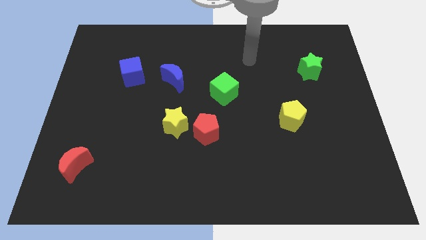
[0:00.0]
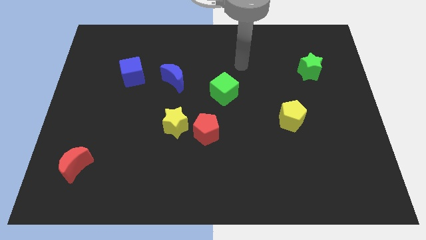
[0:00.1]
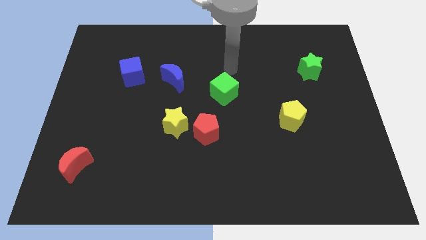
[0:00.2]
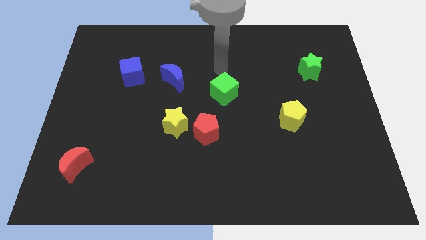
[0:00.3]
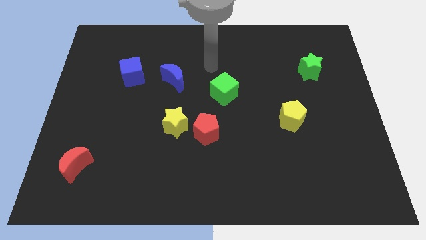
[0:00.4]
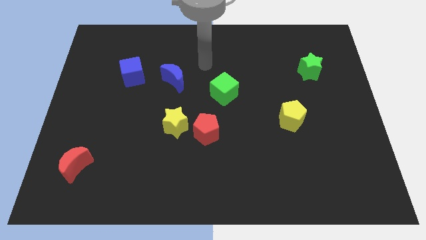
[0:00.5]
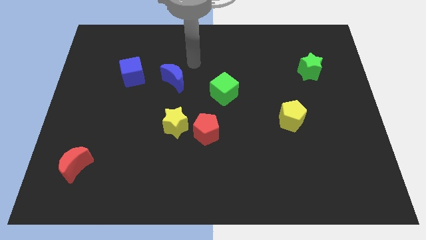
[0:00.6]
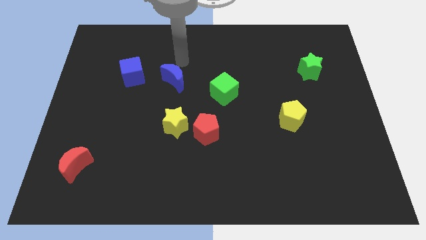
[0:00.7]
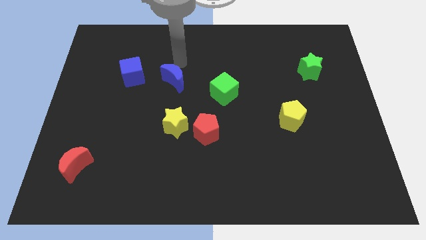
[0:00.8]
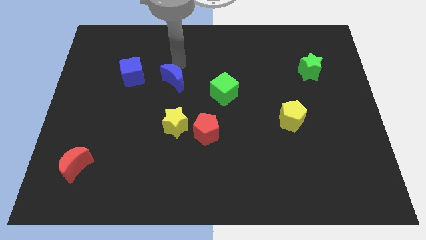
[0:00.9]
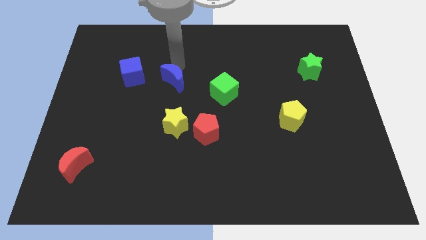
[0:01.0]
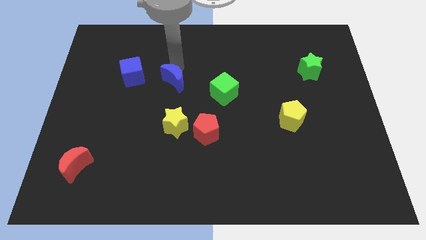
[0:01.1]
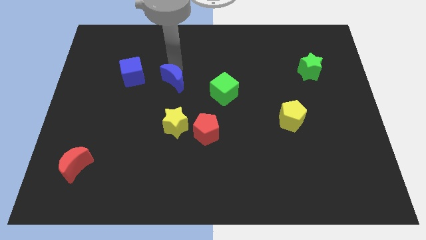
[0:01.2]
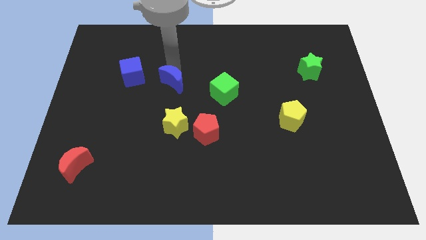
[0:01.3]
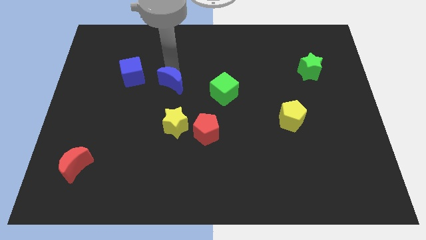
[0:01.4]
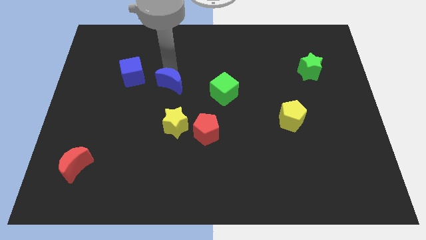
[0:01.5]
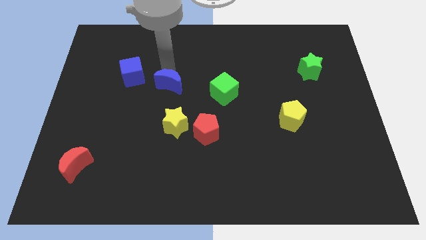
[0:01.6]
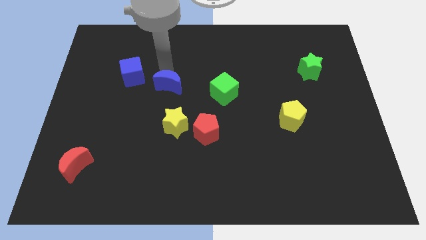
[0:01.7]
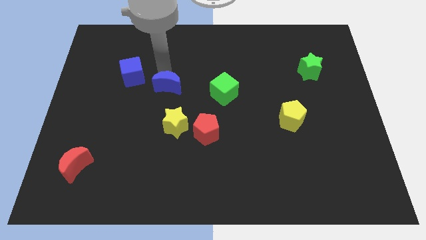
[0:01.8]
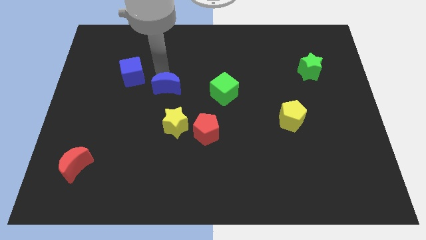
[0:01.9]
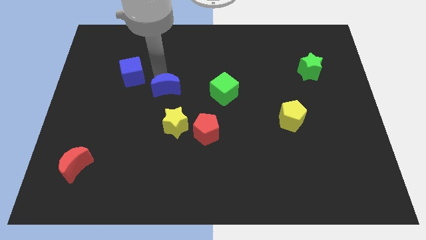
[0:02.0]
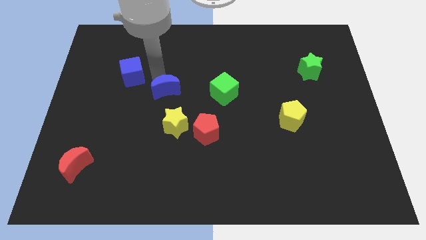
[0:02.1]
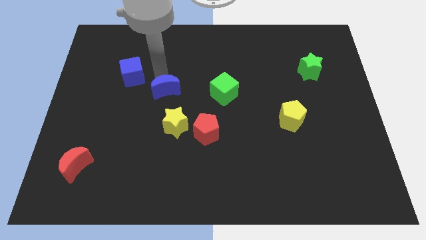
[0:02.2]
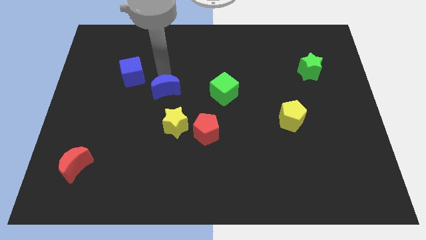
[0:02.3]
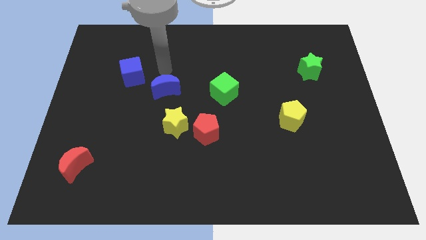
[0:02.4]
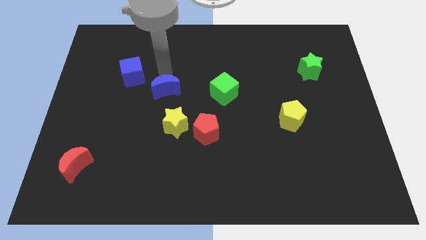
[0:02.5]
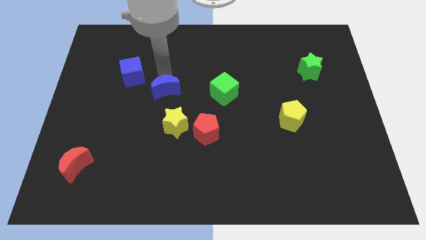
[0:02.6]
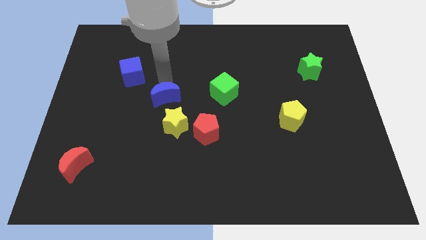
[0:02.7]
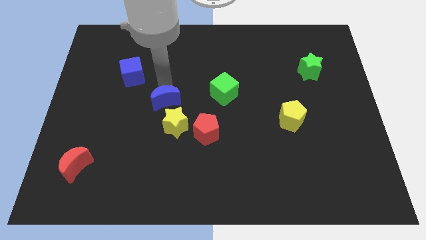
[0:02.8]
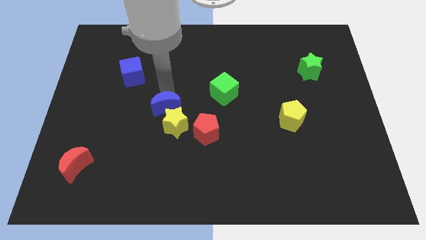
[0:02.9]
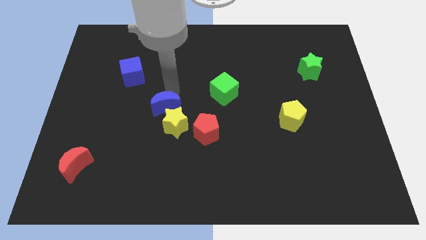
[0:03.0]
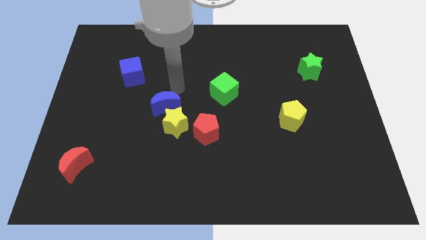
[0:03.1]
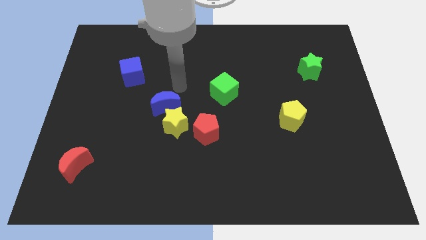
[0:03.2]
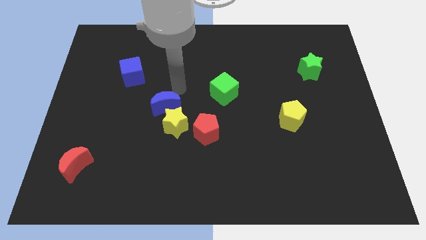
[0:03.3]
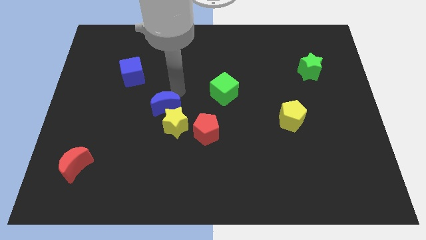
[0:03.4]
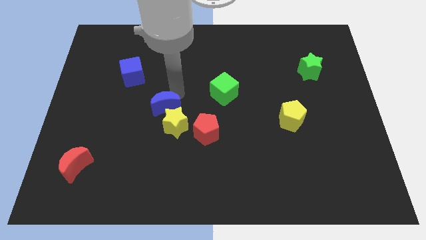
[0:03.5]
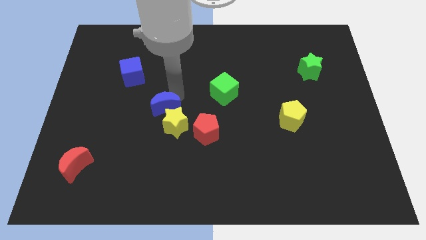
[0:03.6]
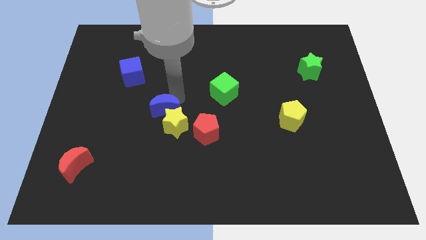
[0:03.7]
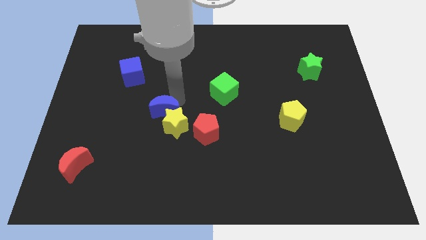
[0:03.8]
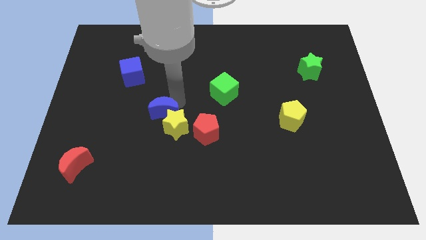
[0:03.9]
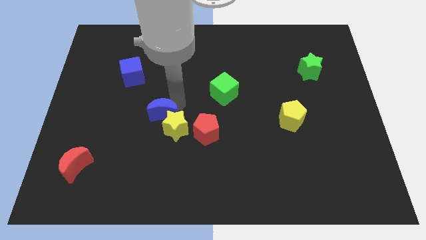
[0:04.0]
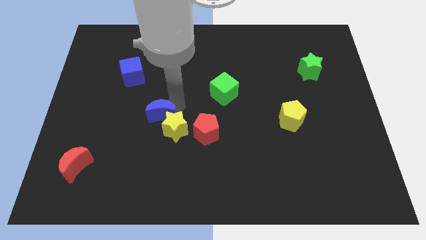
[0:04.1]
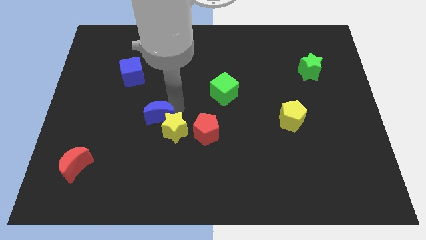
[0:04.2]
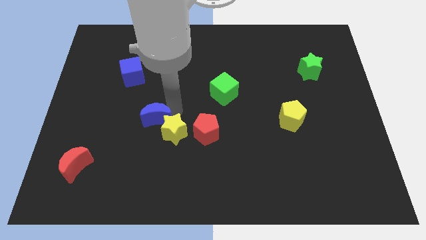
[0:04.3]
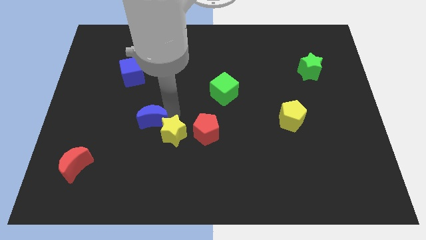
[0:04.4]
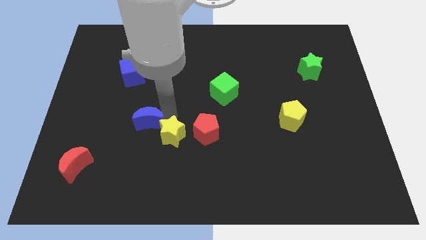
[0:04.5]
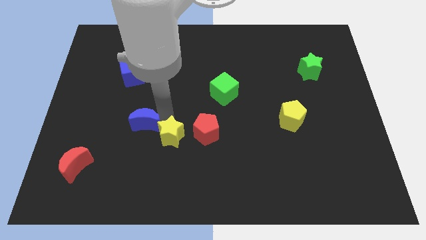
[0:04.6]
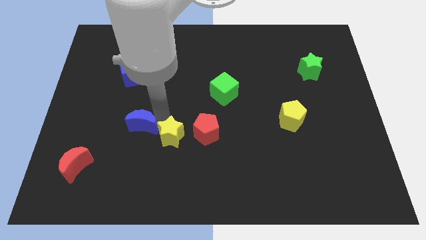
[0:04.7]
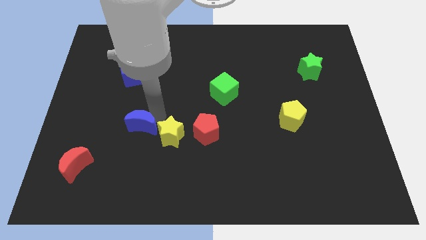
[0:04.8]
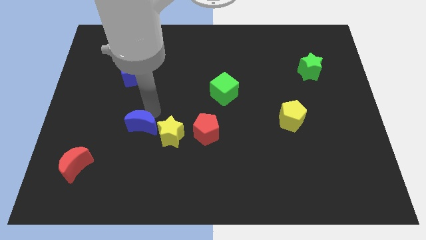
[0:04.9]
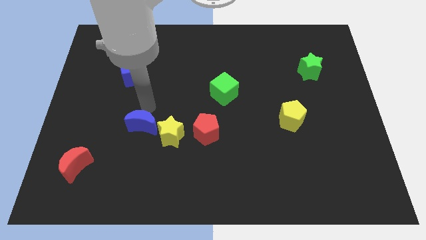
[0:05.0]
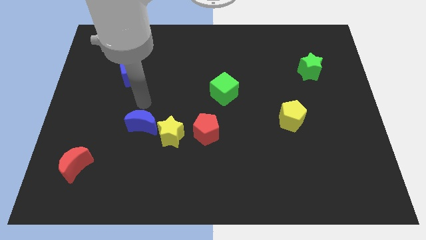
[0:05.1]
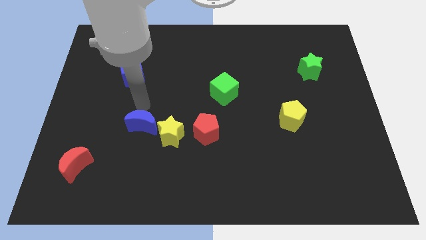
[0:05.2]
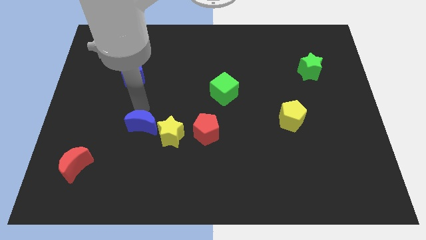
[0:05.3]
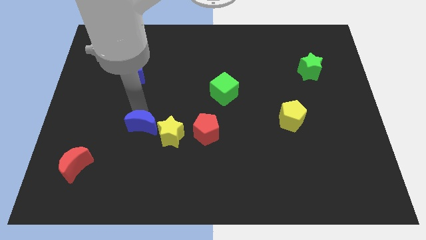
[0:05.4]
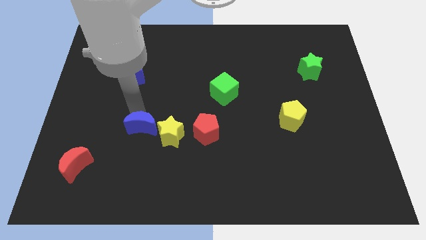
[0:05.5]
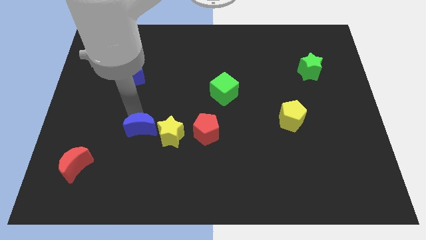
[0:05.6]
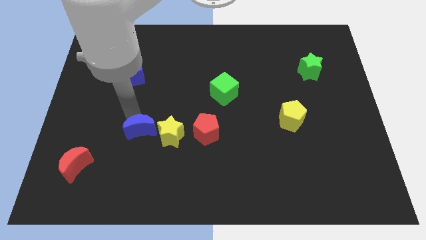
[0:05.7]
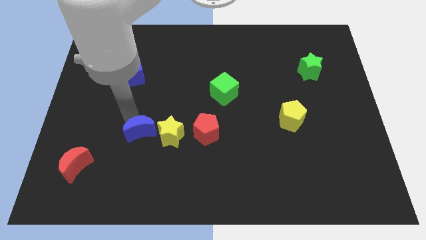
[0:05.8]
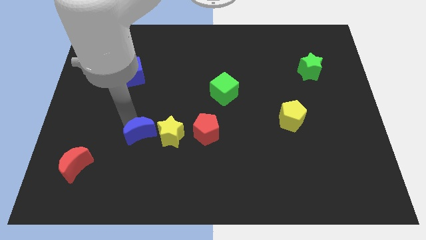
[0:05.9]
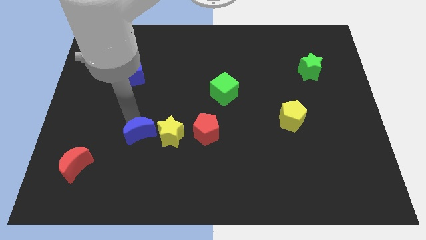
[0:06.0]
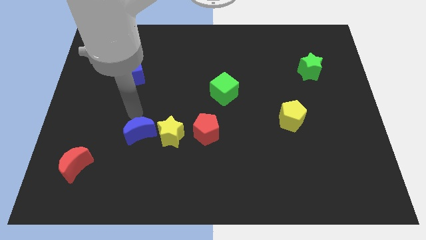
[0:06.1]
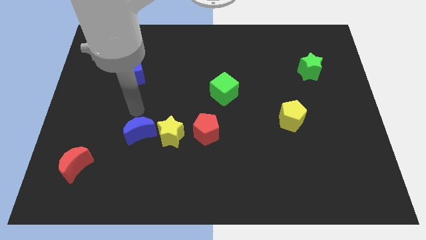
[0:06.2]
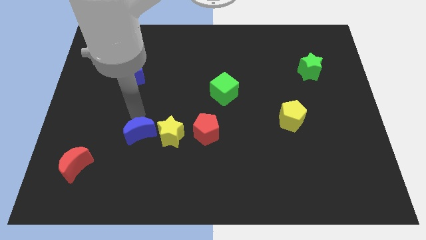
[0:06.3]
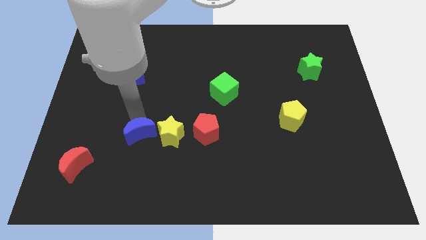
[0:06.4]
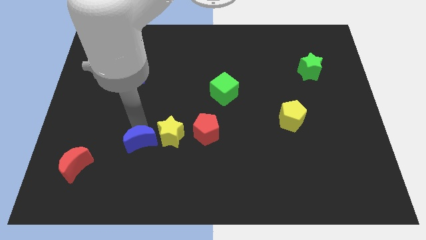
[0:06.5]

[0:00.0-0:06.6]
put the blue moon to the bottom left of the yellow star
